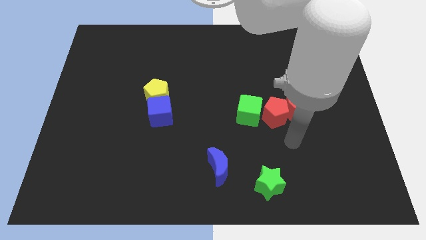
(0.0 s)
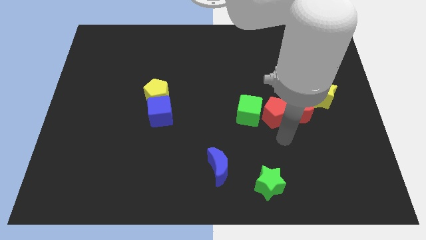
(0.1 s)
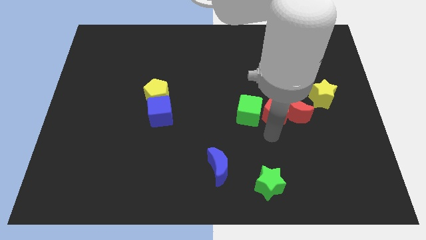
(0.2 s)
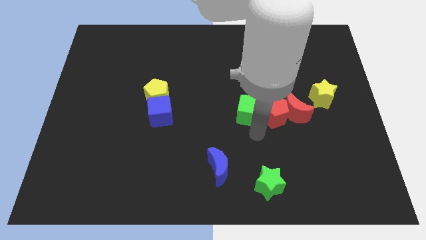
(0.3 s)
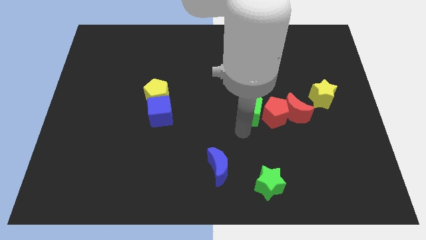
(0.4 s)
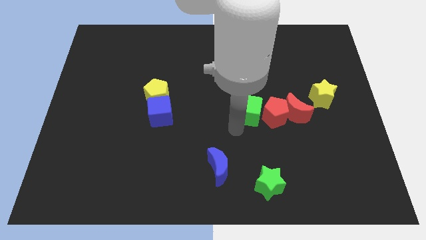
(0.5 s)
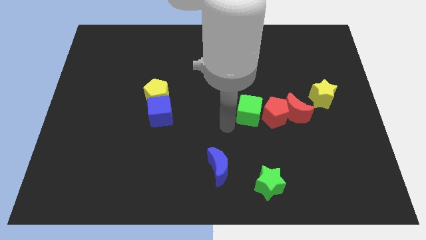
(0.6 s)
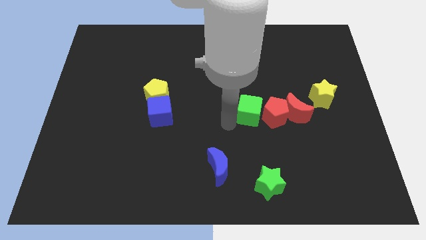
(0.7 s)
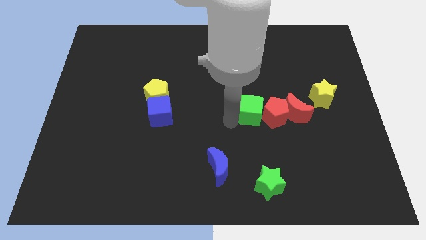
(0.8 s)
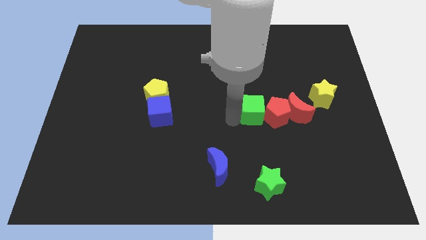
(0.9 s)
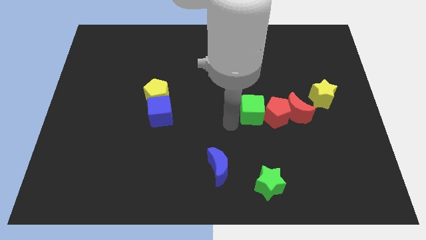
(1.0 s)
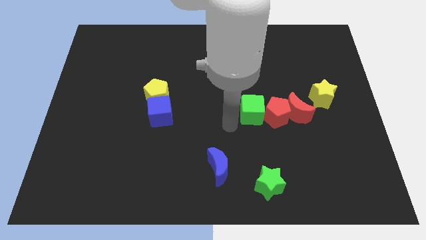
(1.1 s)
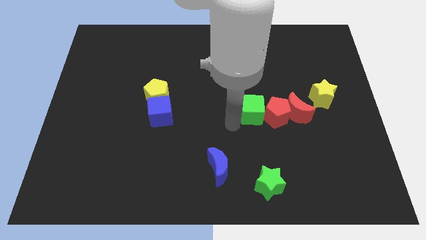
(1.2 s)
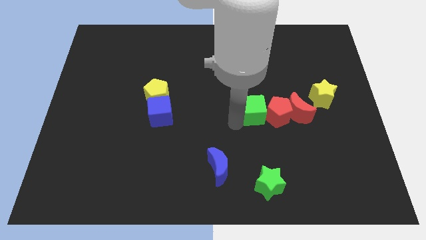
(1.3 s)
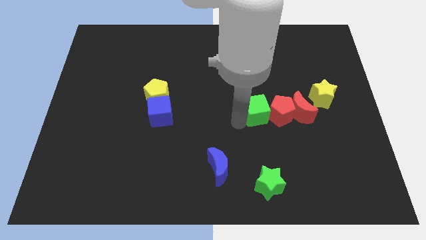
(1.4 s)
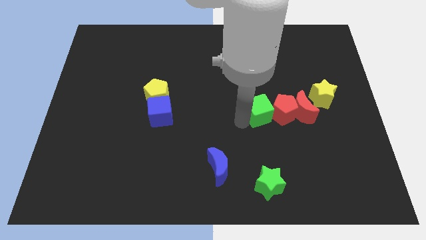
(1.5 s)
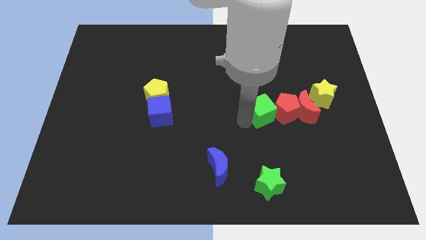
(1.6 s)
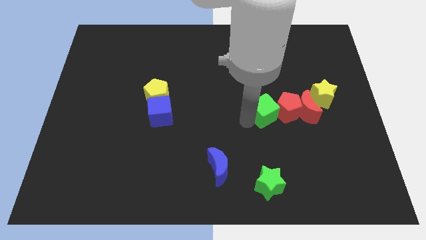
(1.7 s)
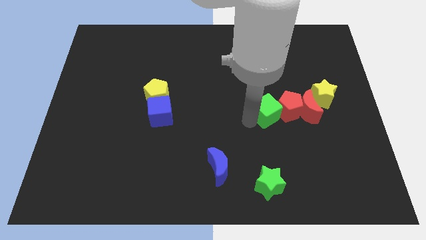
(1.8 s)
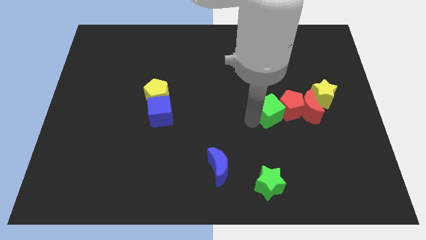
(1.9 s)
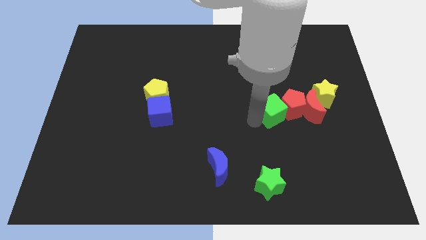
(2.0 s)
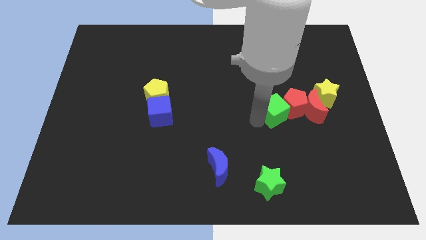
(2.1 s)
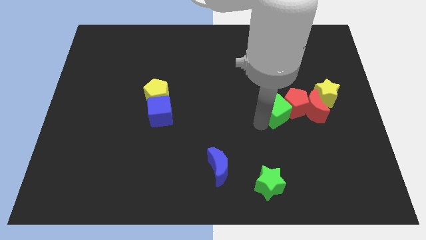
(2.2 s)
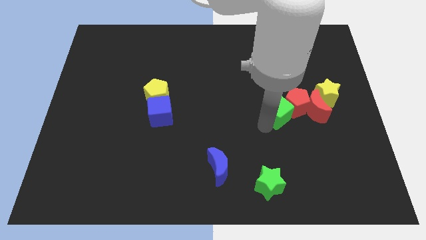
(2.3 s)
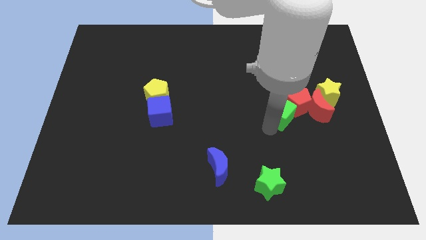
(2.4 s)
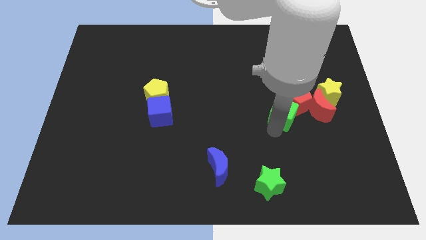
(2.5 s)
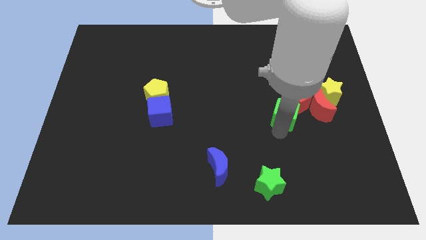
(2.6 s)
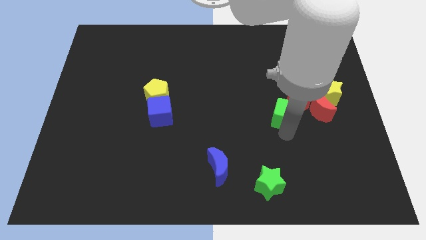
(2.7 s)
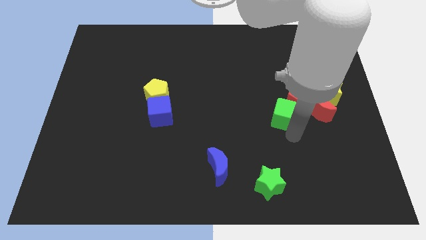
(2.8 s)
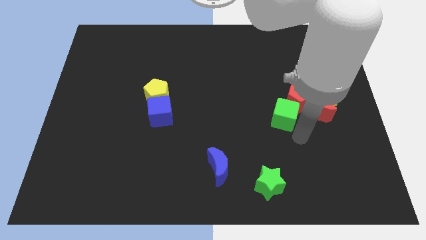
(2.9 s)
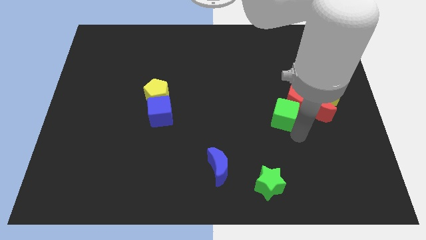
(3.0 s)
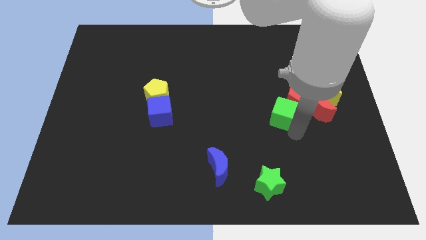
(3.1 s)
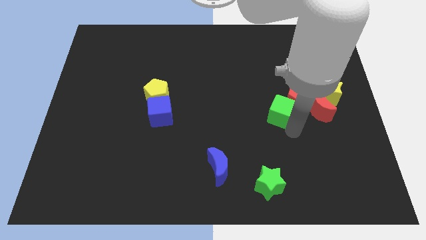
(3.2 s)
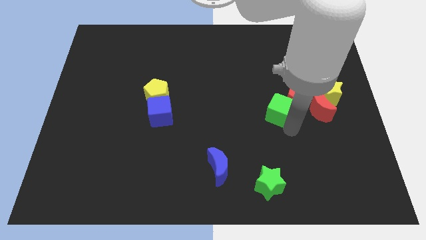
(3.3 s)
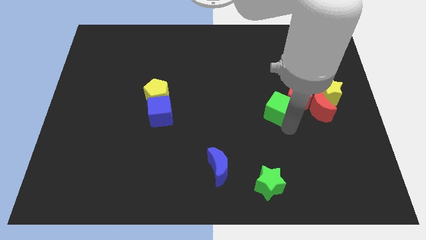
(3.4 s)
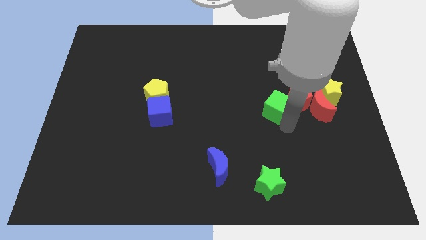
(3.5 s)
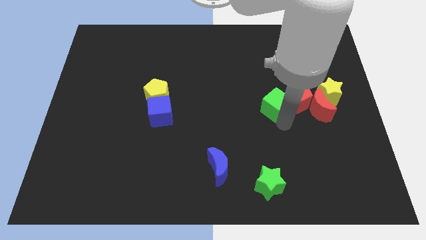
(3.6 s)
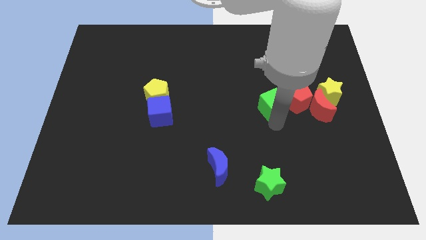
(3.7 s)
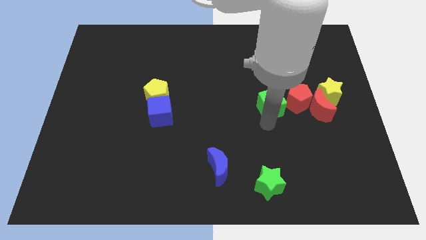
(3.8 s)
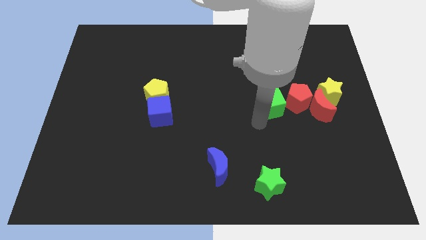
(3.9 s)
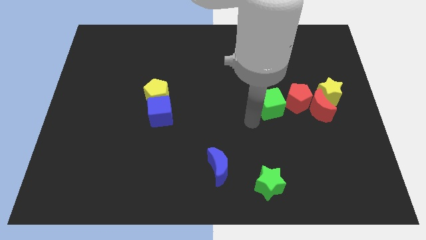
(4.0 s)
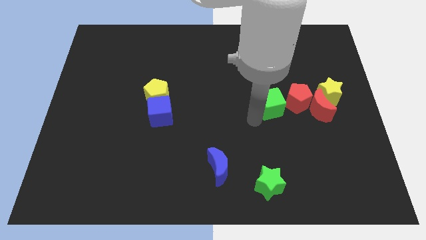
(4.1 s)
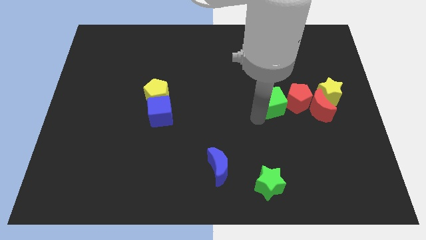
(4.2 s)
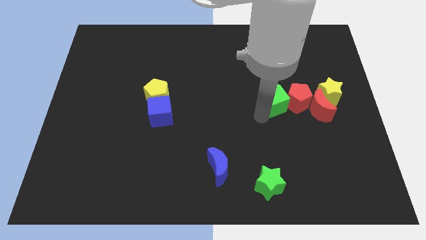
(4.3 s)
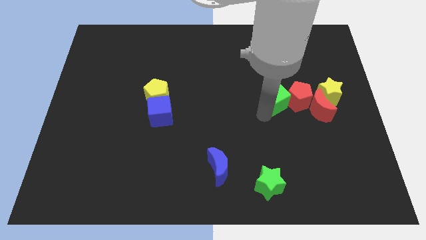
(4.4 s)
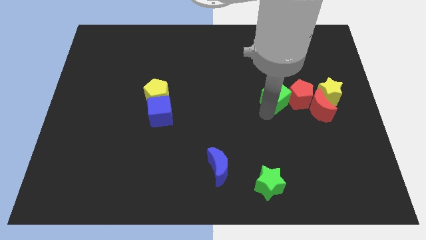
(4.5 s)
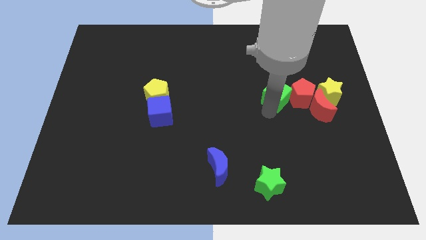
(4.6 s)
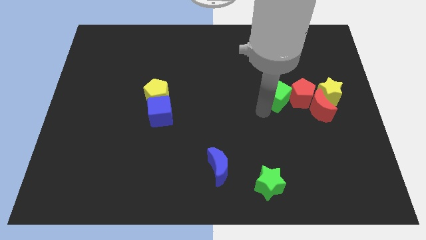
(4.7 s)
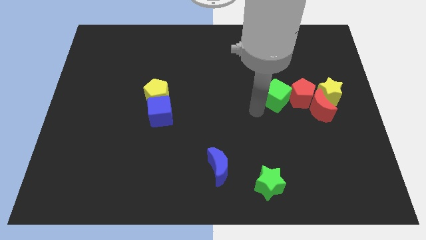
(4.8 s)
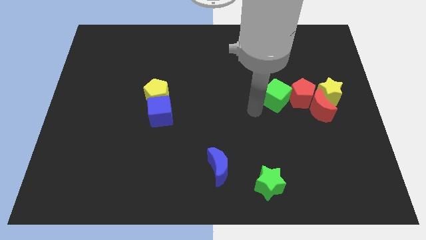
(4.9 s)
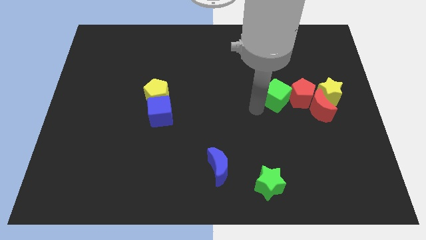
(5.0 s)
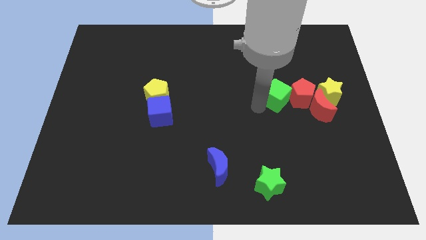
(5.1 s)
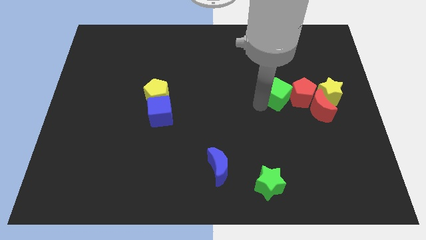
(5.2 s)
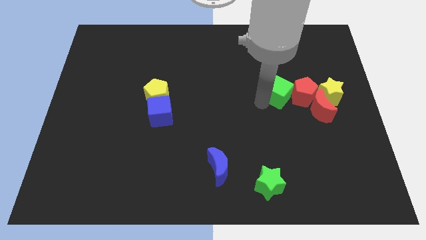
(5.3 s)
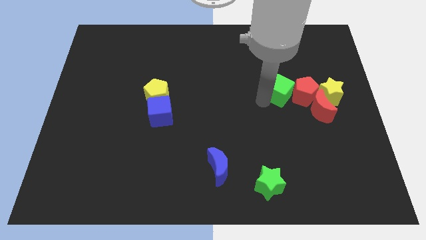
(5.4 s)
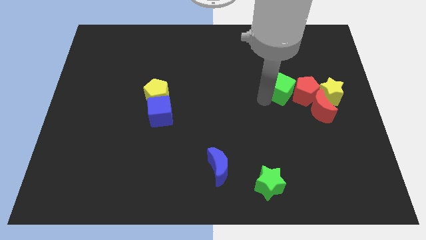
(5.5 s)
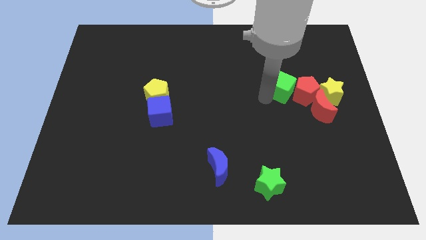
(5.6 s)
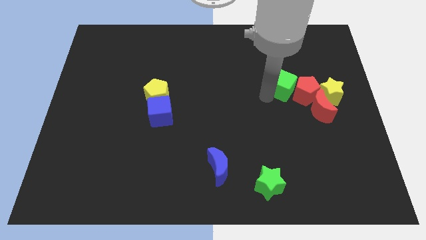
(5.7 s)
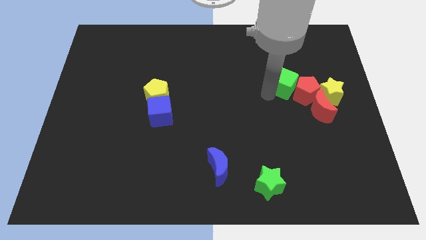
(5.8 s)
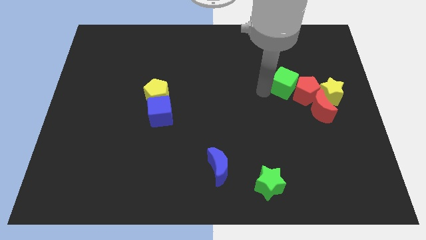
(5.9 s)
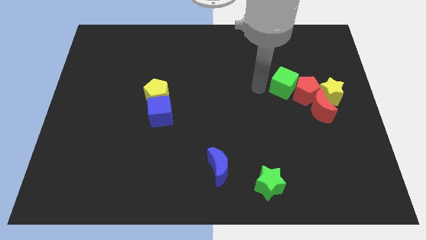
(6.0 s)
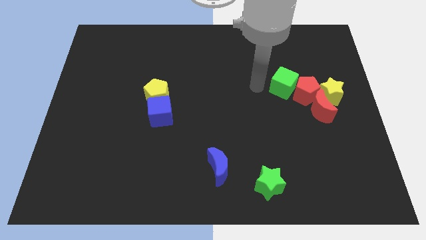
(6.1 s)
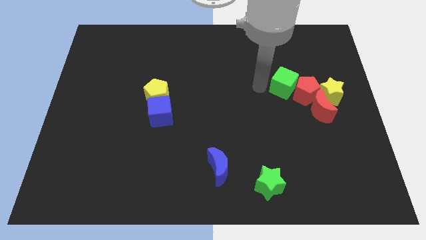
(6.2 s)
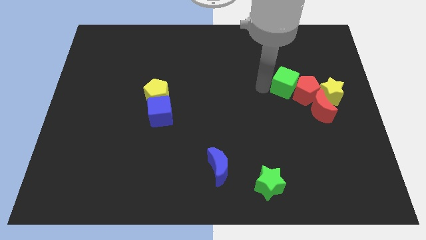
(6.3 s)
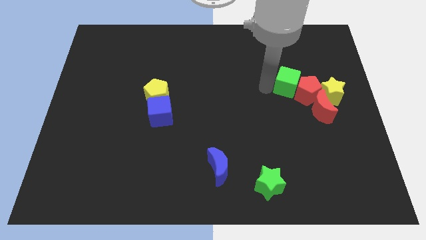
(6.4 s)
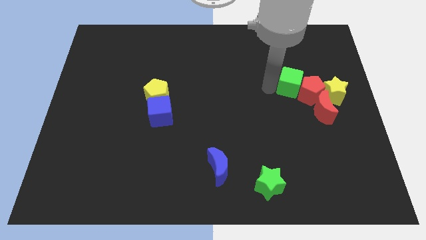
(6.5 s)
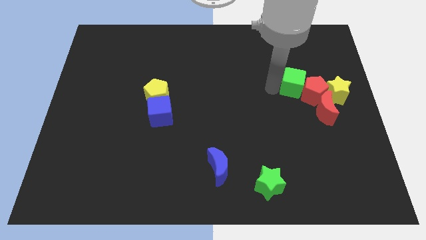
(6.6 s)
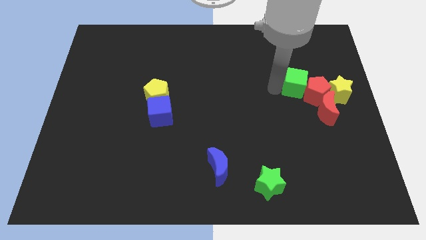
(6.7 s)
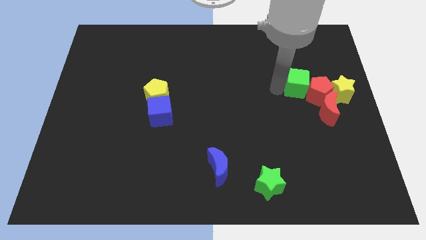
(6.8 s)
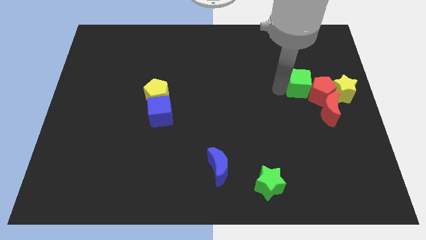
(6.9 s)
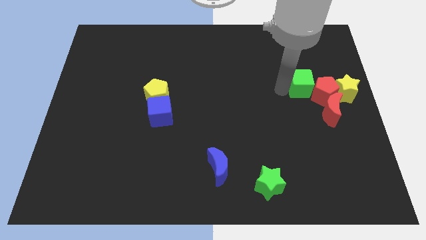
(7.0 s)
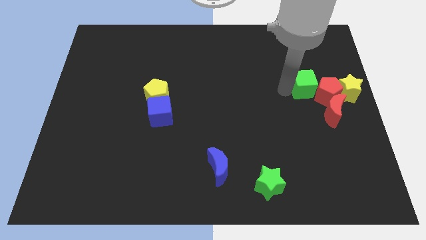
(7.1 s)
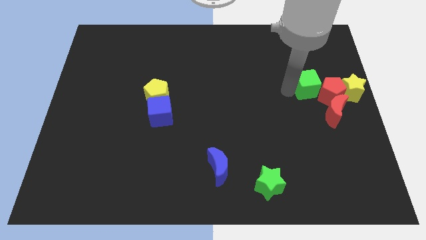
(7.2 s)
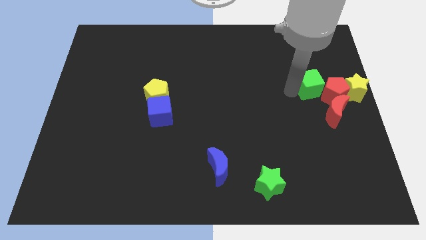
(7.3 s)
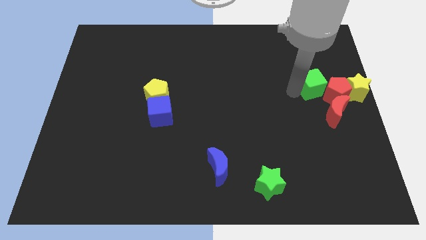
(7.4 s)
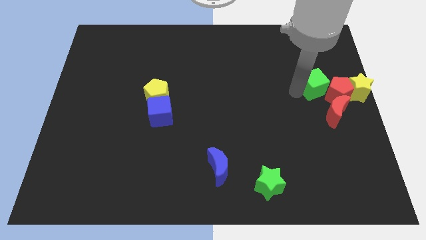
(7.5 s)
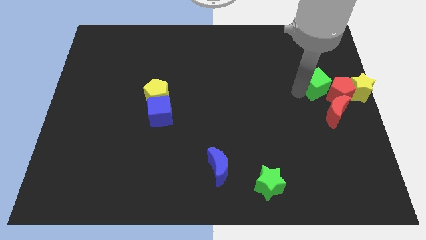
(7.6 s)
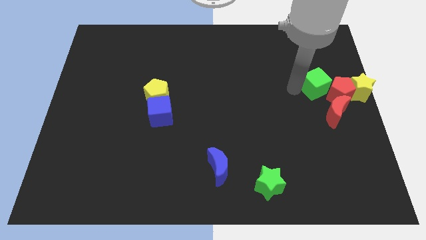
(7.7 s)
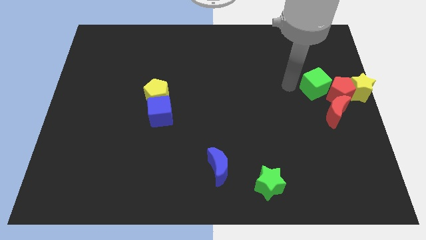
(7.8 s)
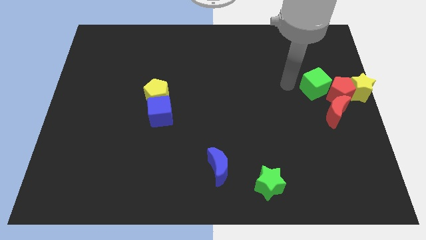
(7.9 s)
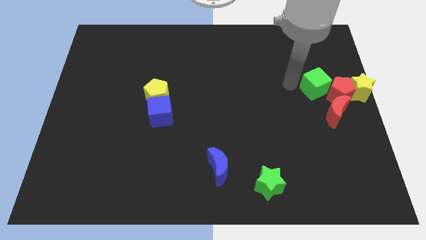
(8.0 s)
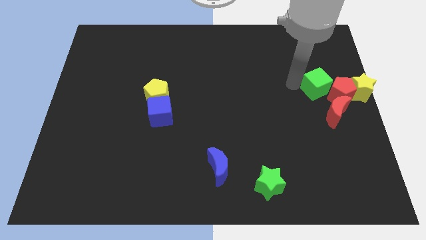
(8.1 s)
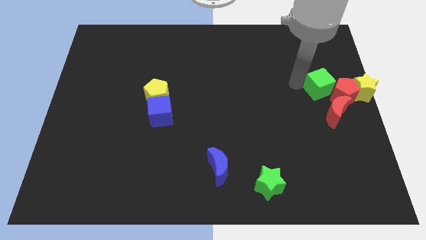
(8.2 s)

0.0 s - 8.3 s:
push the green cube to the right side
